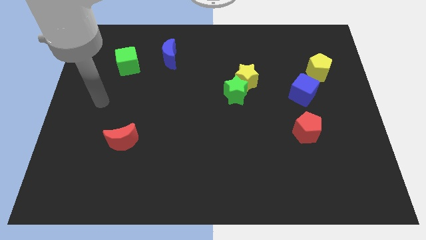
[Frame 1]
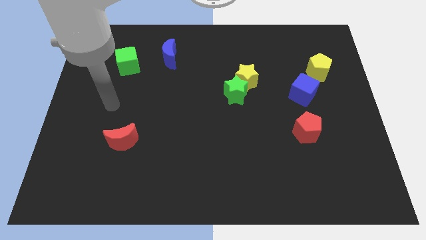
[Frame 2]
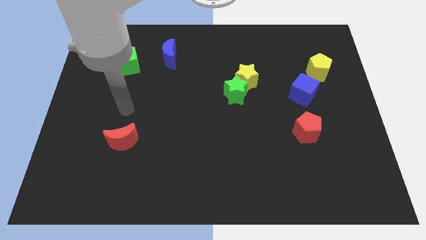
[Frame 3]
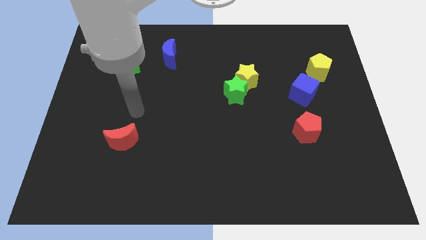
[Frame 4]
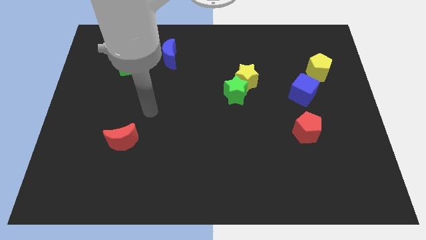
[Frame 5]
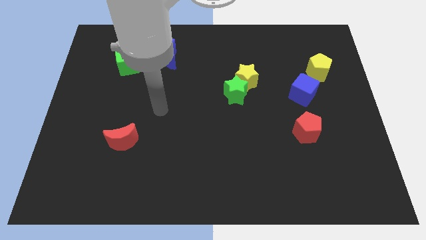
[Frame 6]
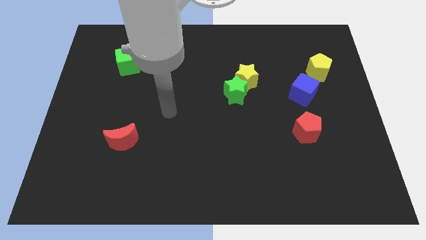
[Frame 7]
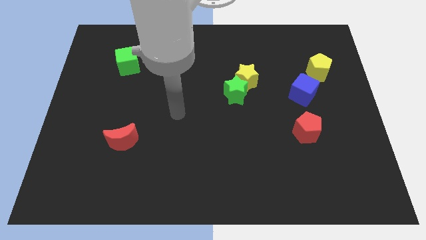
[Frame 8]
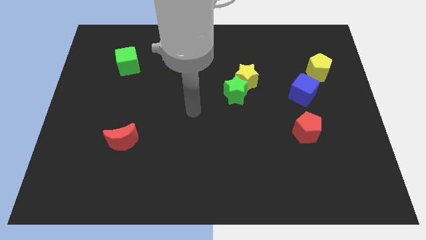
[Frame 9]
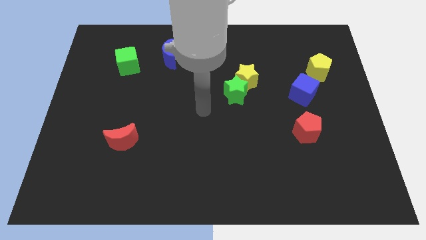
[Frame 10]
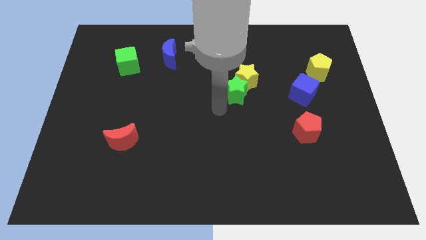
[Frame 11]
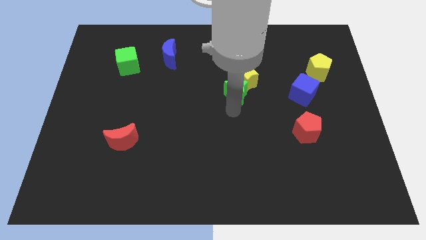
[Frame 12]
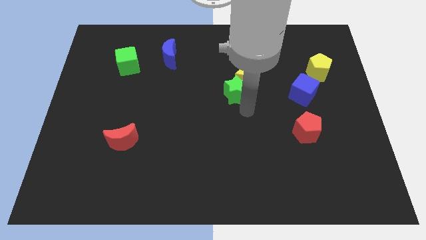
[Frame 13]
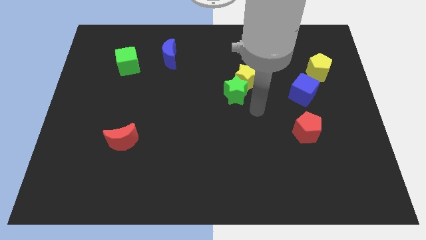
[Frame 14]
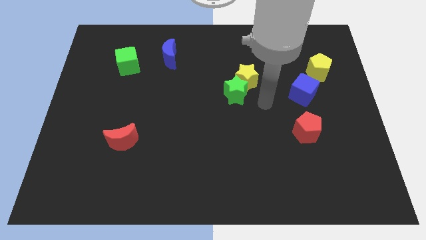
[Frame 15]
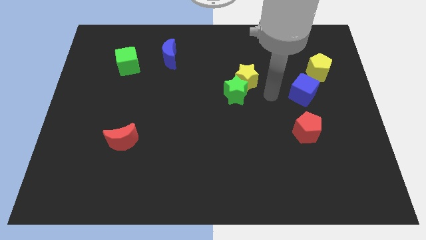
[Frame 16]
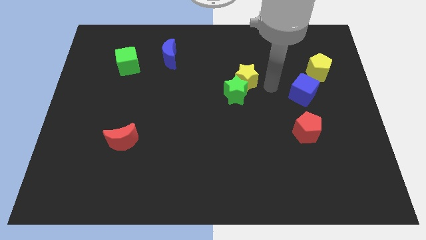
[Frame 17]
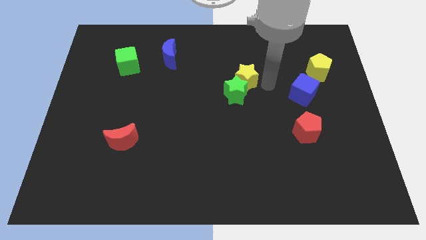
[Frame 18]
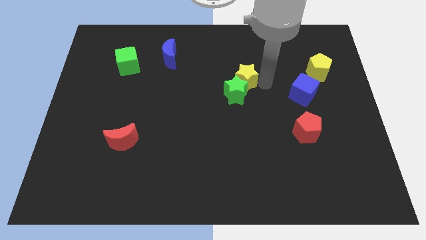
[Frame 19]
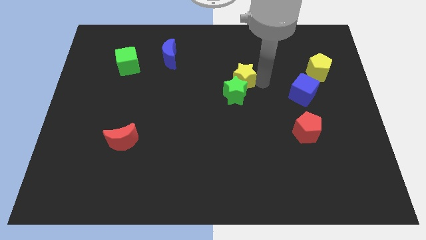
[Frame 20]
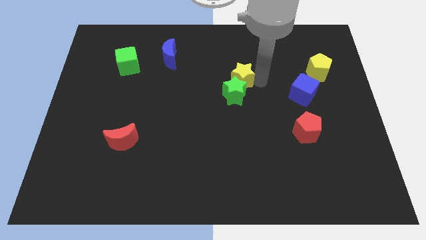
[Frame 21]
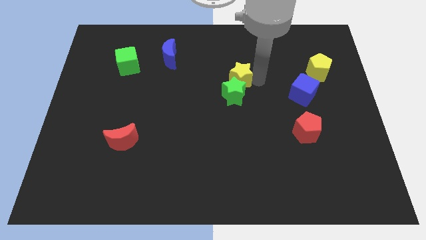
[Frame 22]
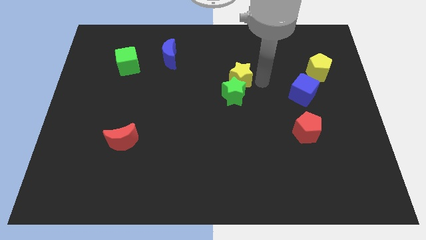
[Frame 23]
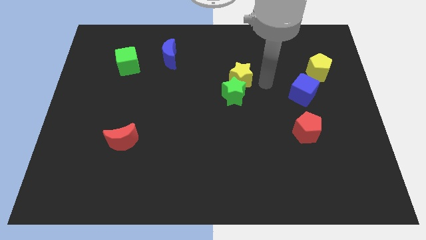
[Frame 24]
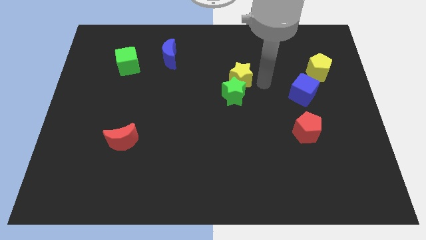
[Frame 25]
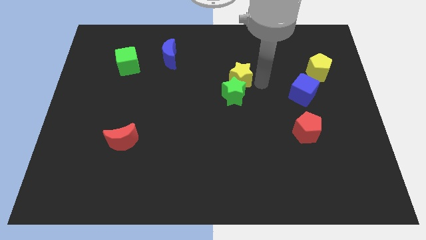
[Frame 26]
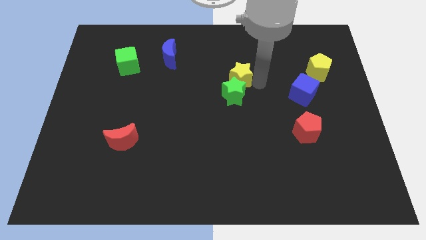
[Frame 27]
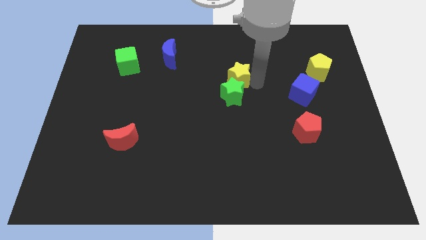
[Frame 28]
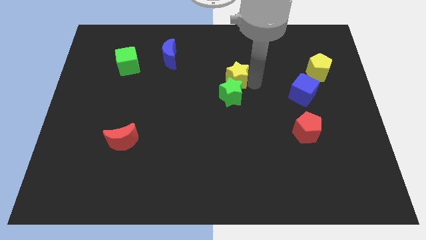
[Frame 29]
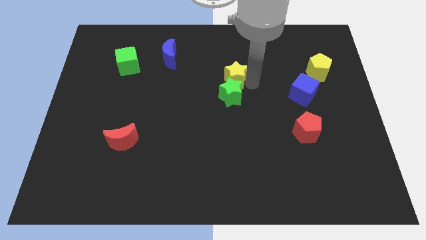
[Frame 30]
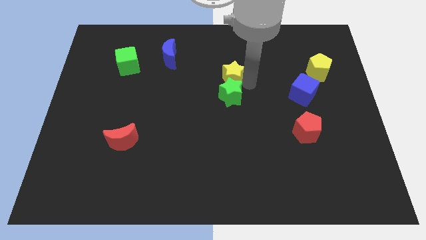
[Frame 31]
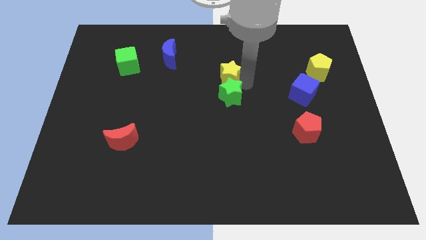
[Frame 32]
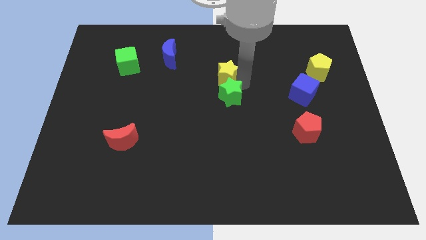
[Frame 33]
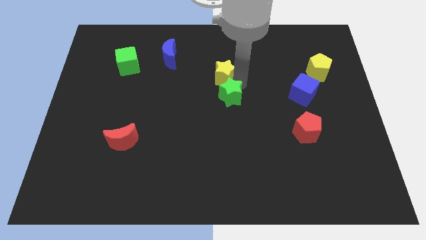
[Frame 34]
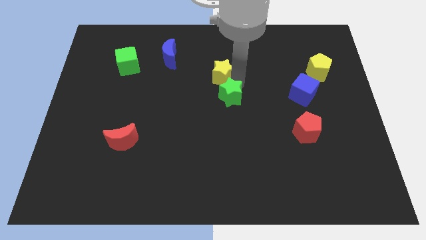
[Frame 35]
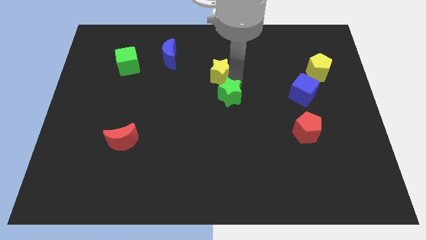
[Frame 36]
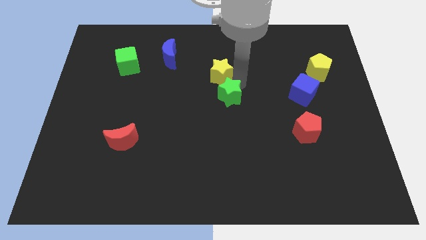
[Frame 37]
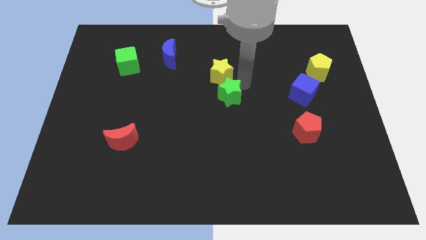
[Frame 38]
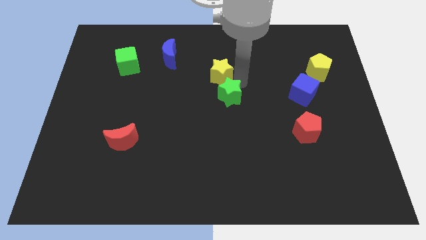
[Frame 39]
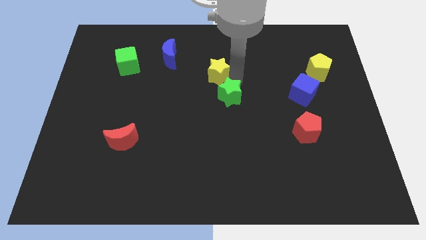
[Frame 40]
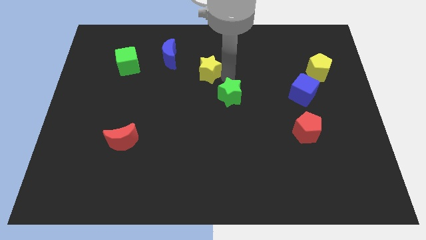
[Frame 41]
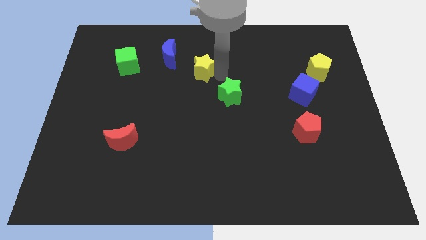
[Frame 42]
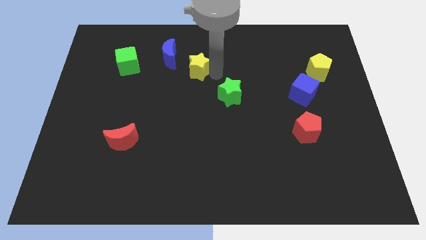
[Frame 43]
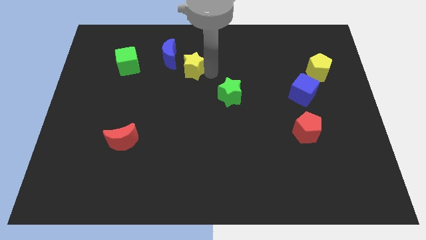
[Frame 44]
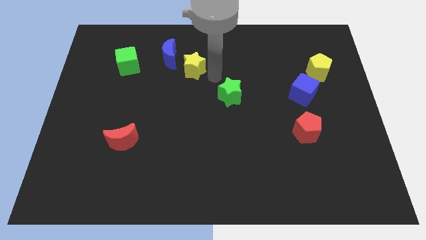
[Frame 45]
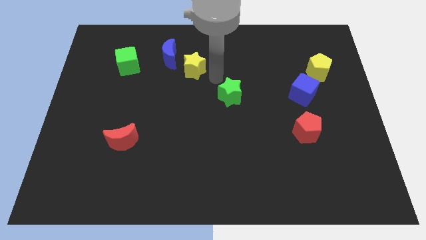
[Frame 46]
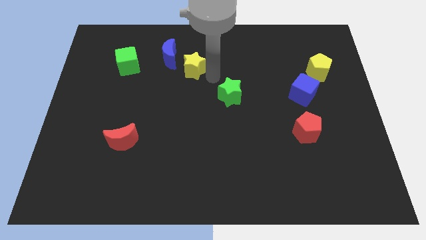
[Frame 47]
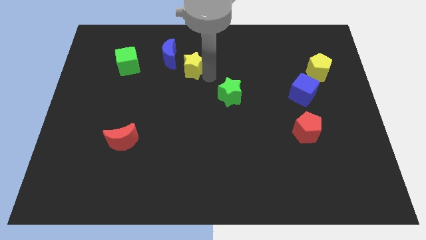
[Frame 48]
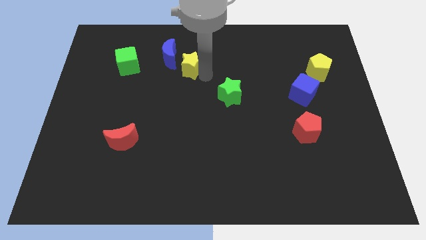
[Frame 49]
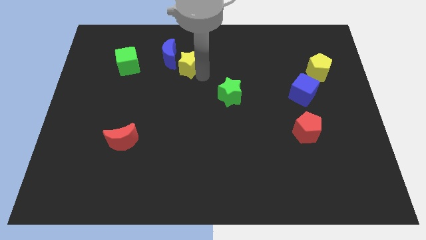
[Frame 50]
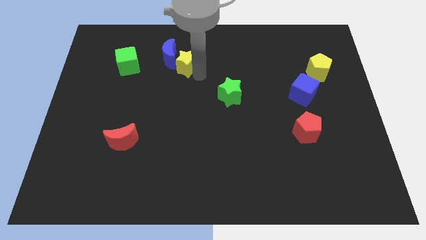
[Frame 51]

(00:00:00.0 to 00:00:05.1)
move the yellow star towards the blue moon

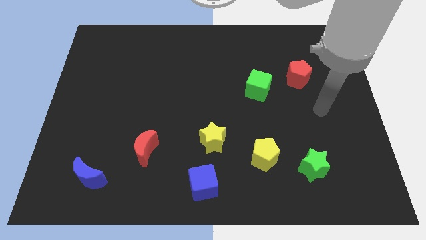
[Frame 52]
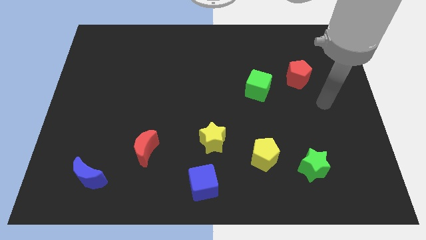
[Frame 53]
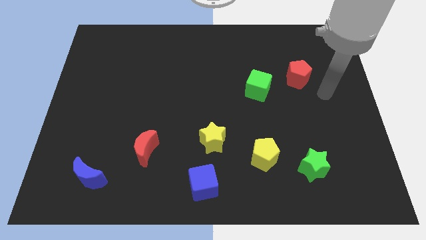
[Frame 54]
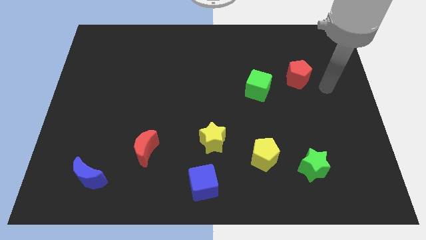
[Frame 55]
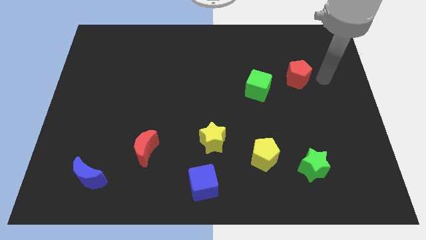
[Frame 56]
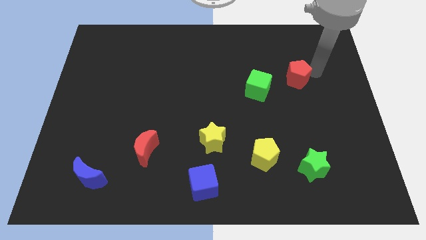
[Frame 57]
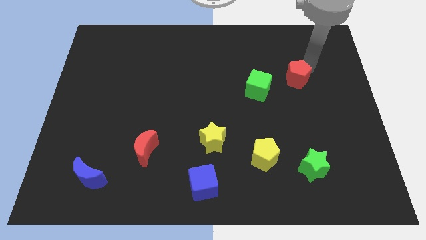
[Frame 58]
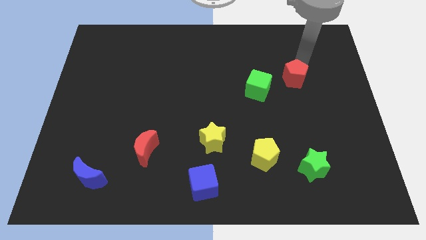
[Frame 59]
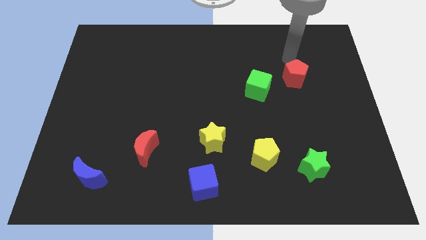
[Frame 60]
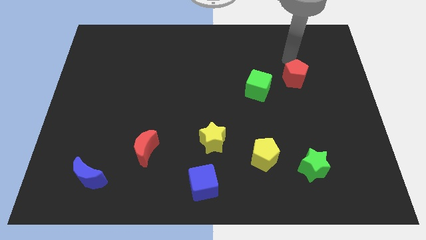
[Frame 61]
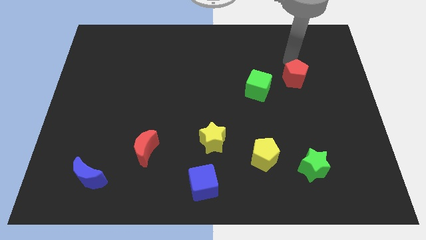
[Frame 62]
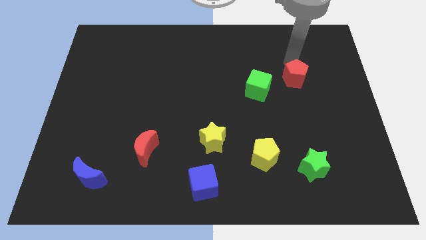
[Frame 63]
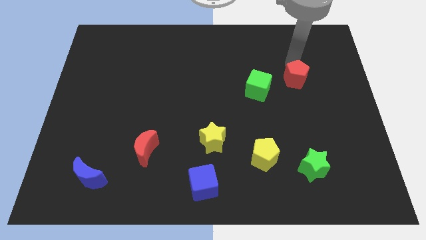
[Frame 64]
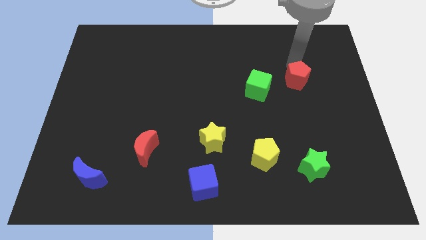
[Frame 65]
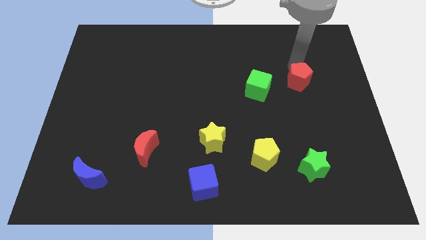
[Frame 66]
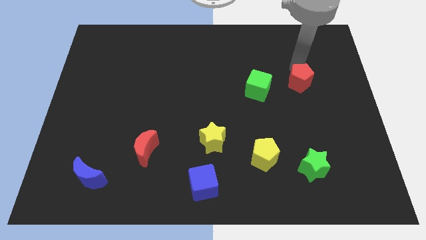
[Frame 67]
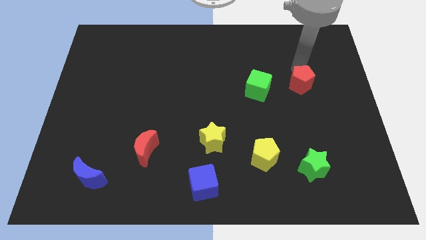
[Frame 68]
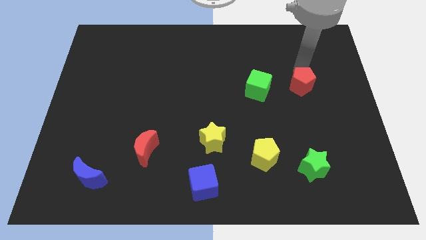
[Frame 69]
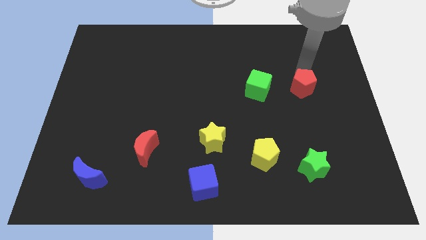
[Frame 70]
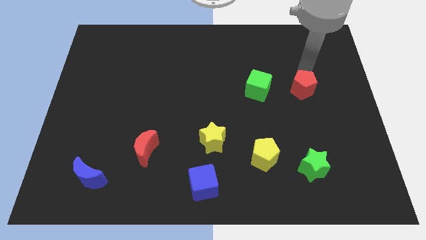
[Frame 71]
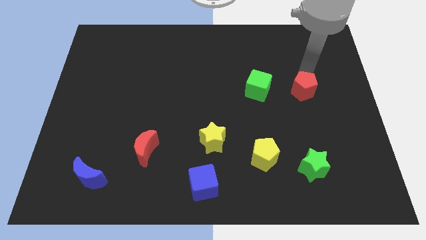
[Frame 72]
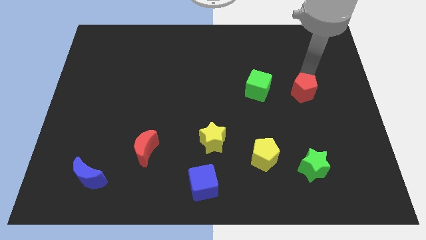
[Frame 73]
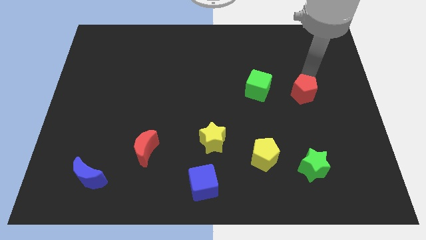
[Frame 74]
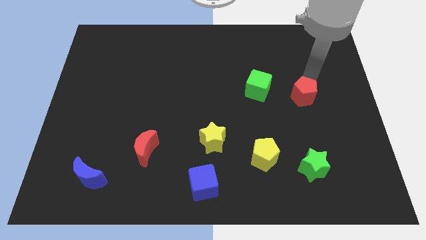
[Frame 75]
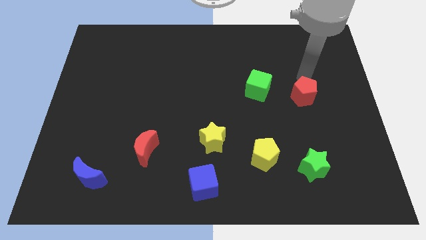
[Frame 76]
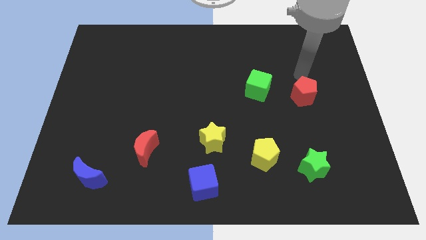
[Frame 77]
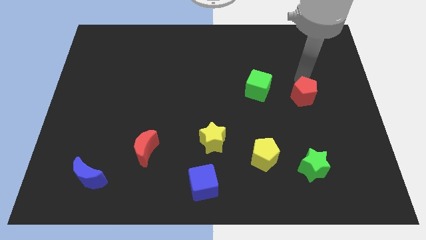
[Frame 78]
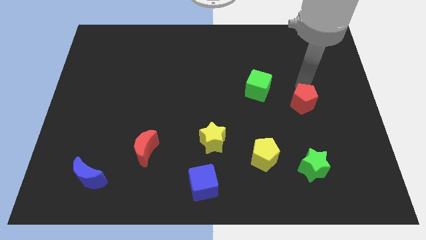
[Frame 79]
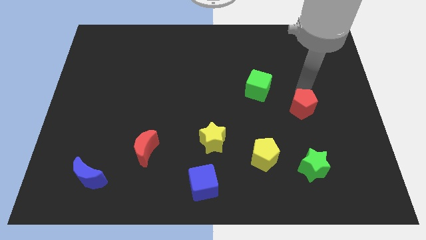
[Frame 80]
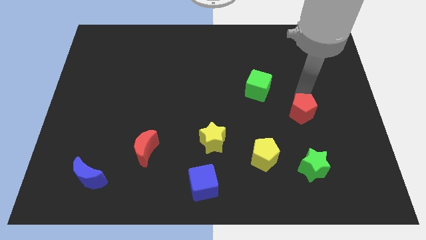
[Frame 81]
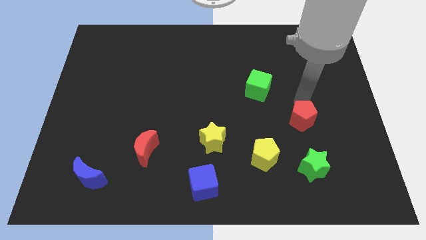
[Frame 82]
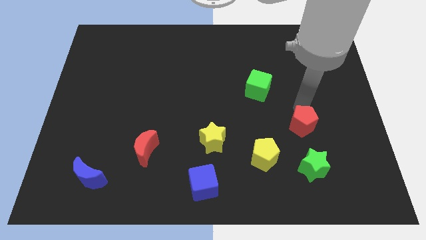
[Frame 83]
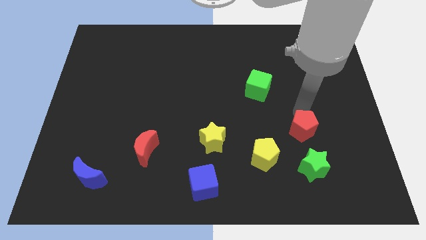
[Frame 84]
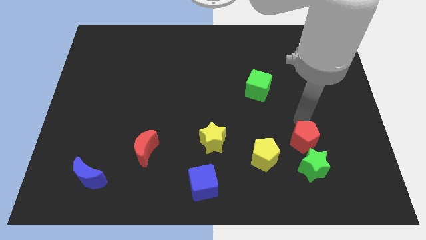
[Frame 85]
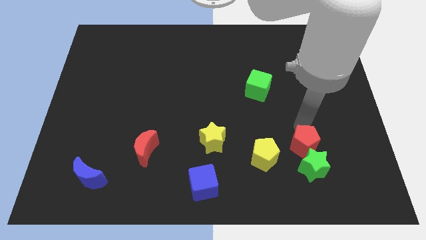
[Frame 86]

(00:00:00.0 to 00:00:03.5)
move the red pentagon close to the green star
